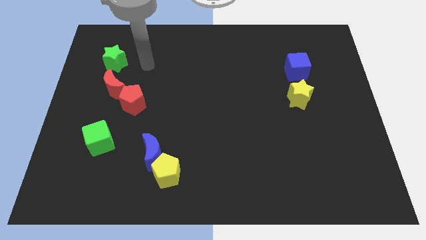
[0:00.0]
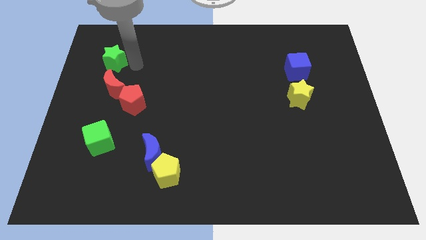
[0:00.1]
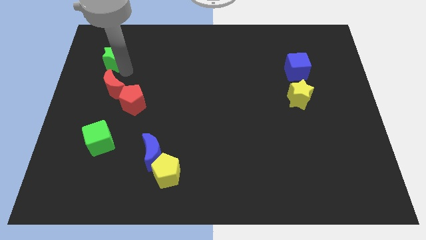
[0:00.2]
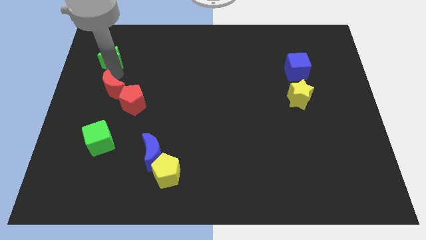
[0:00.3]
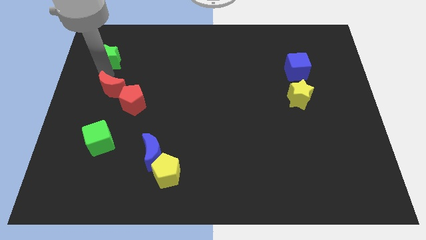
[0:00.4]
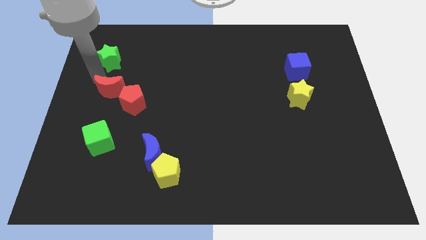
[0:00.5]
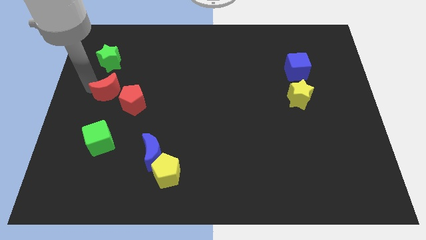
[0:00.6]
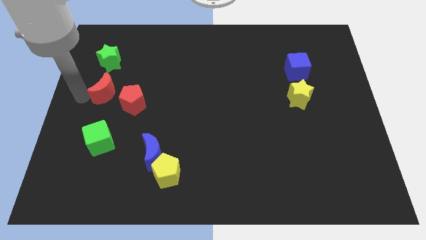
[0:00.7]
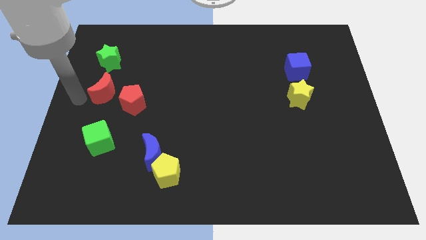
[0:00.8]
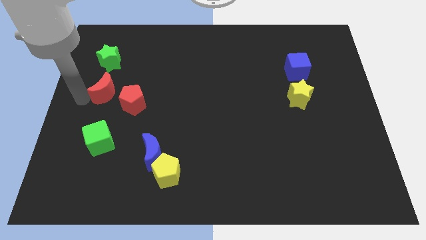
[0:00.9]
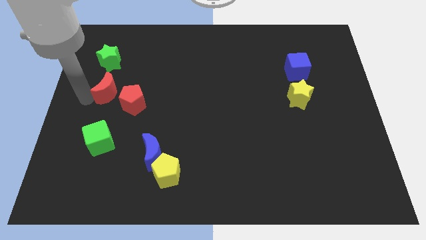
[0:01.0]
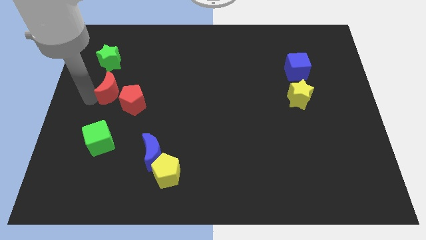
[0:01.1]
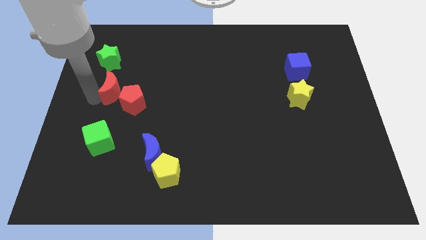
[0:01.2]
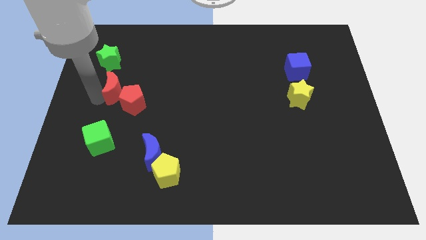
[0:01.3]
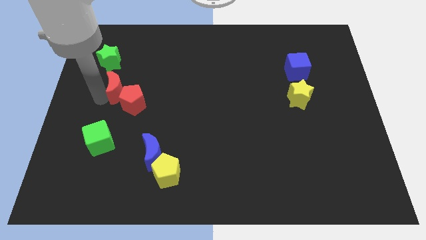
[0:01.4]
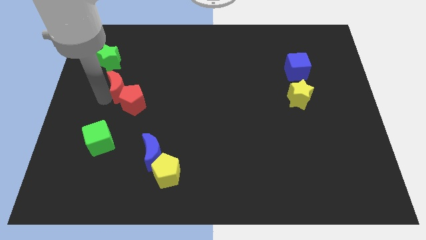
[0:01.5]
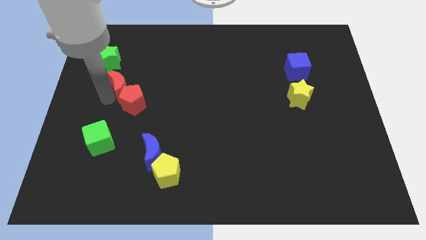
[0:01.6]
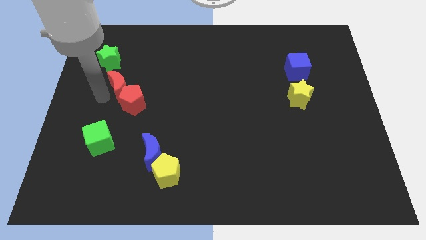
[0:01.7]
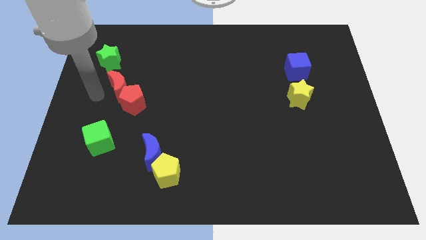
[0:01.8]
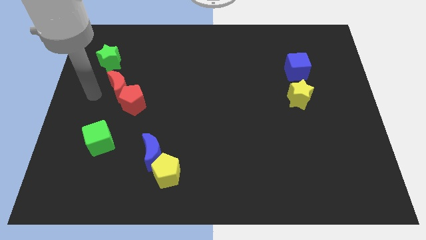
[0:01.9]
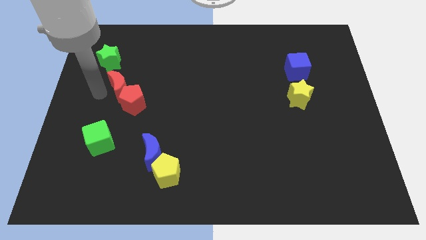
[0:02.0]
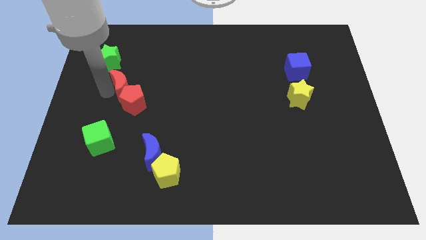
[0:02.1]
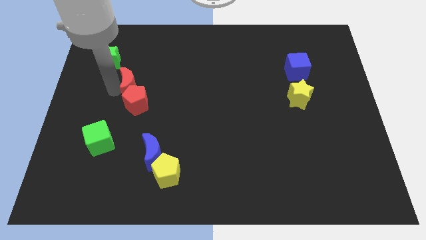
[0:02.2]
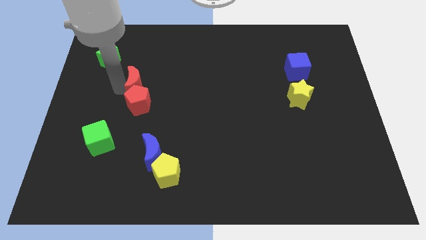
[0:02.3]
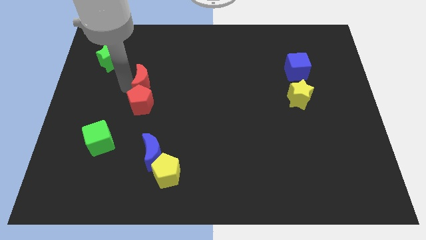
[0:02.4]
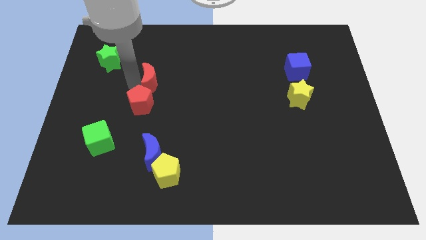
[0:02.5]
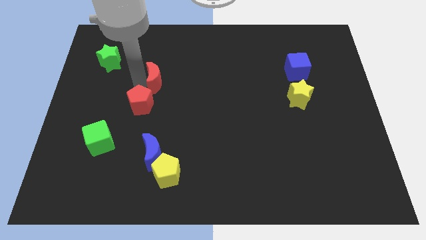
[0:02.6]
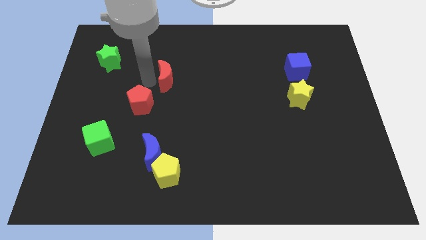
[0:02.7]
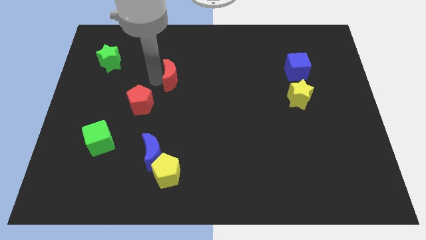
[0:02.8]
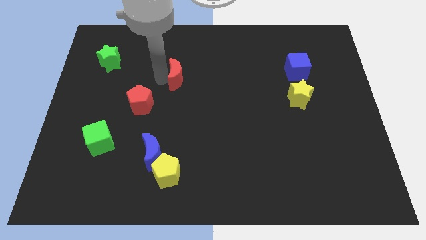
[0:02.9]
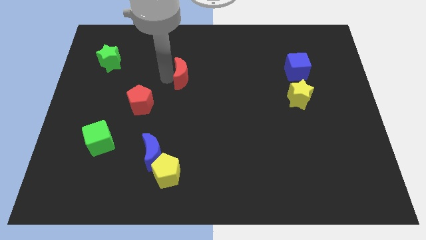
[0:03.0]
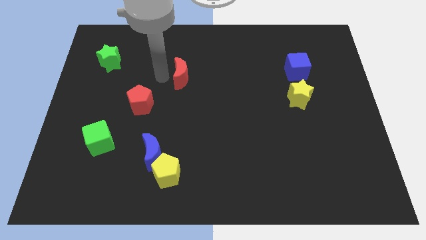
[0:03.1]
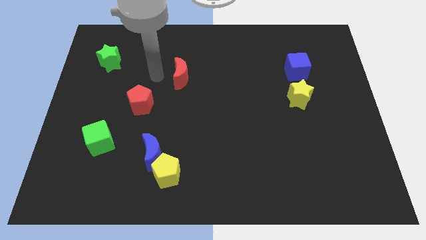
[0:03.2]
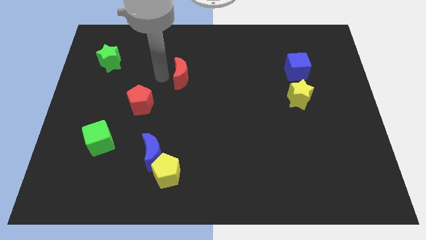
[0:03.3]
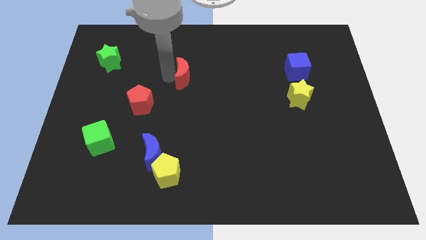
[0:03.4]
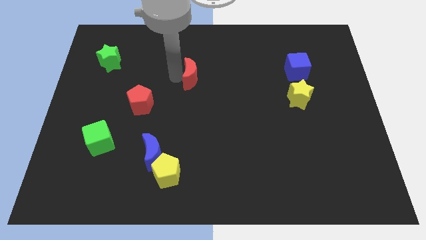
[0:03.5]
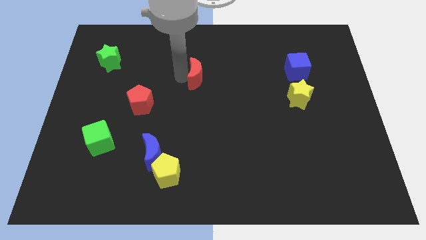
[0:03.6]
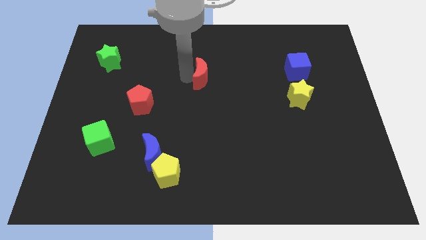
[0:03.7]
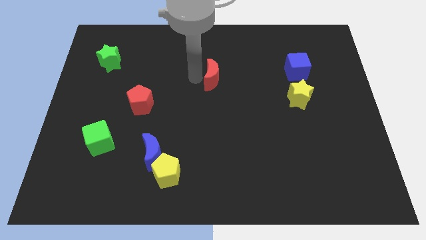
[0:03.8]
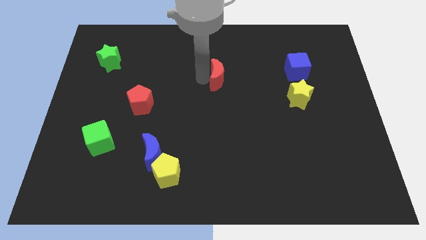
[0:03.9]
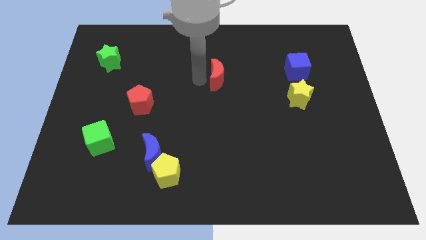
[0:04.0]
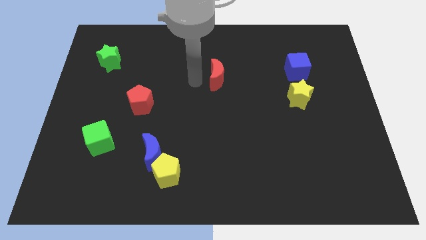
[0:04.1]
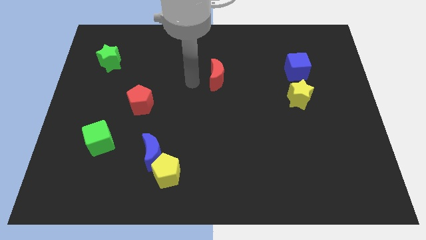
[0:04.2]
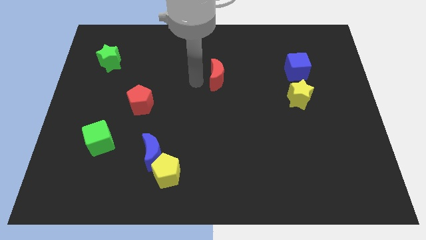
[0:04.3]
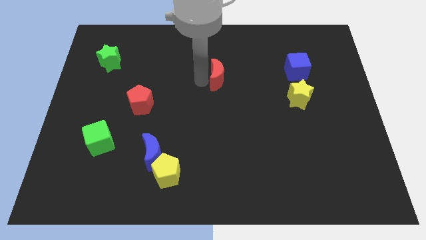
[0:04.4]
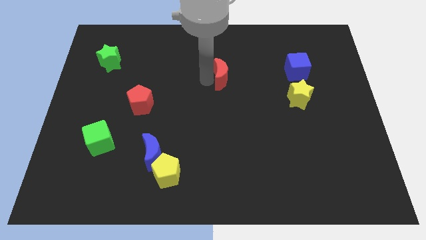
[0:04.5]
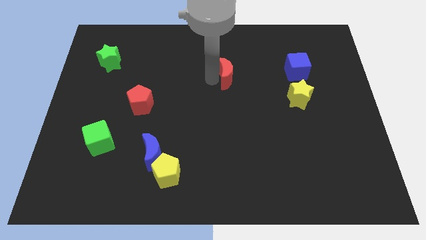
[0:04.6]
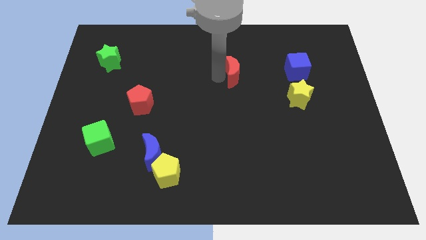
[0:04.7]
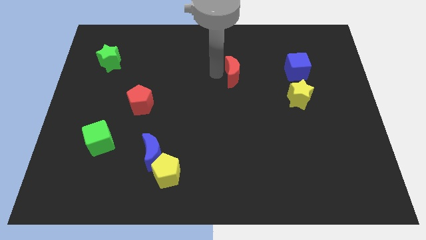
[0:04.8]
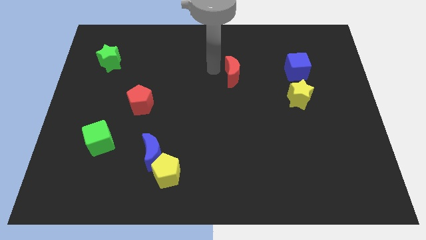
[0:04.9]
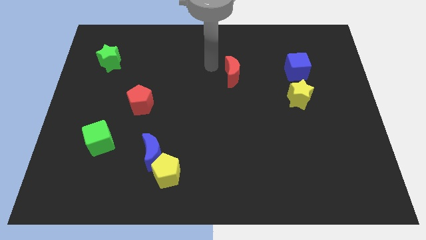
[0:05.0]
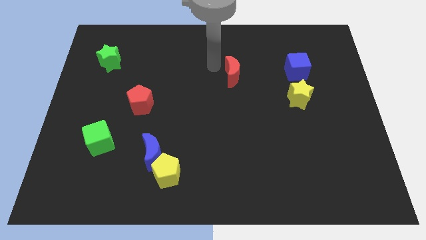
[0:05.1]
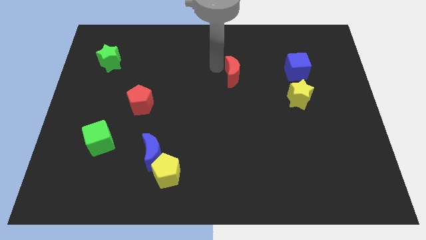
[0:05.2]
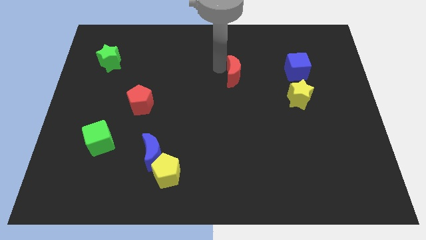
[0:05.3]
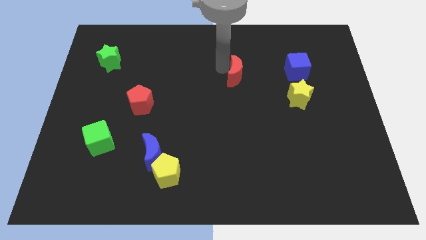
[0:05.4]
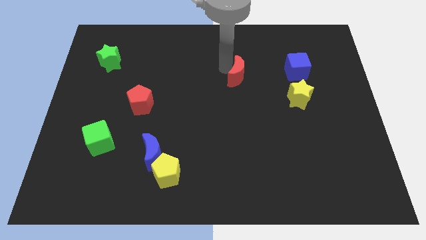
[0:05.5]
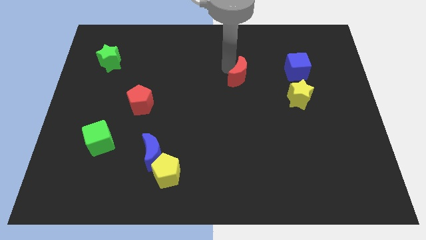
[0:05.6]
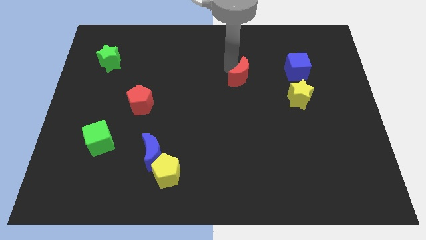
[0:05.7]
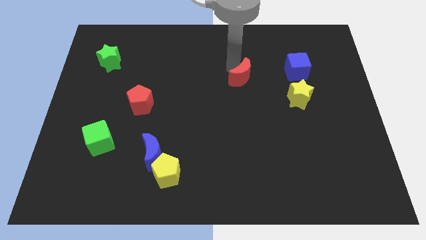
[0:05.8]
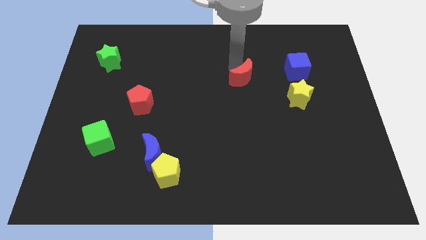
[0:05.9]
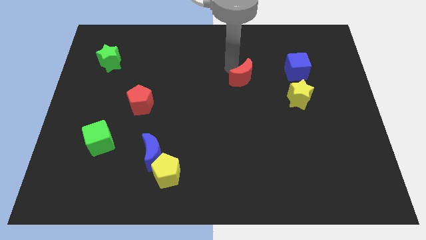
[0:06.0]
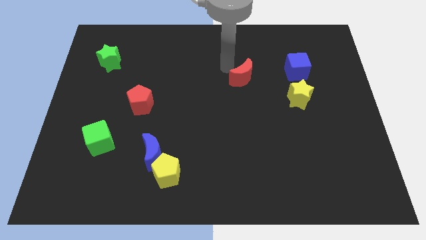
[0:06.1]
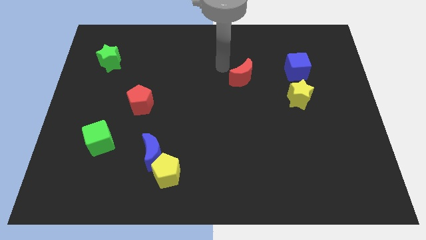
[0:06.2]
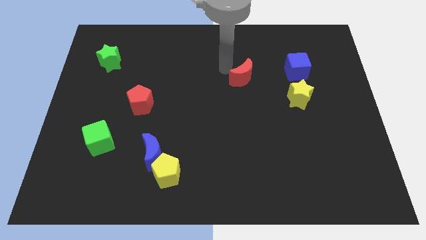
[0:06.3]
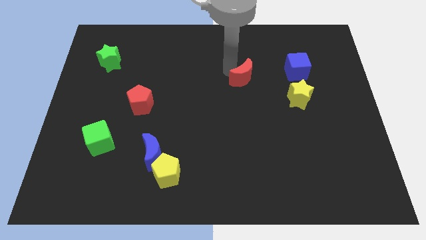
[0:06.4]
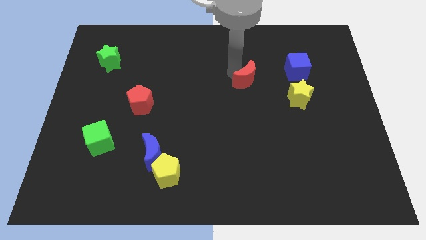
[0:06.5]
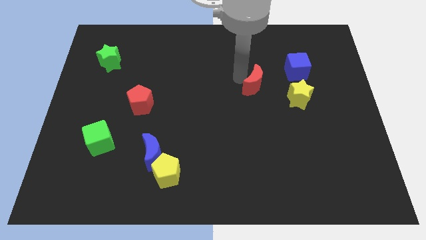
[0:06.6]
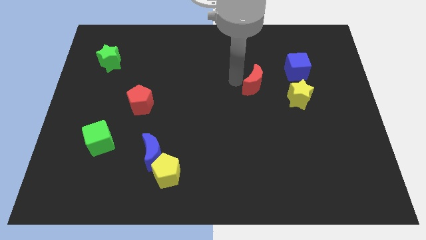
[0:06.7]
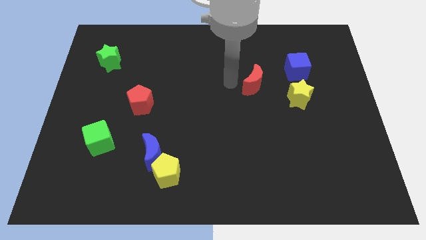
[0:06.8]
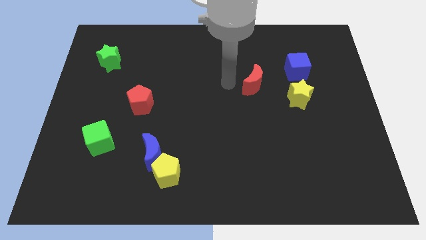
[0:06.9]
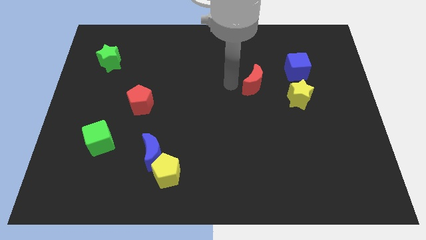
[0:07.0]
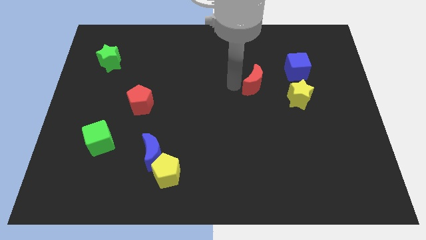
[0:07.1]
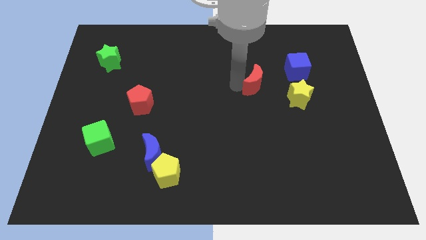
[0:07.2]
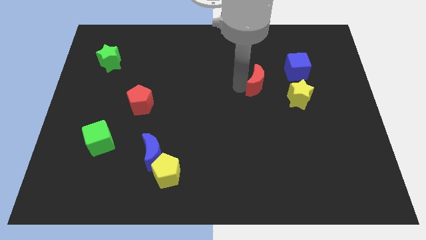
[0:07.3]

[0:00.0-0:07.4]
move the red moon to the bottom left of the blue cube

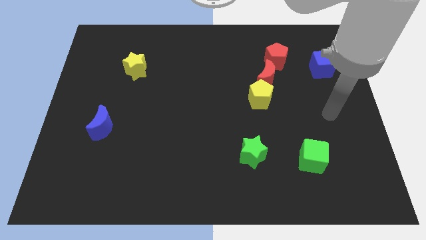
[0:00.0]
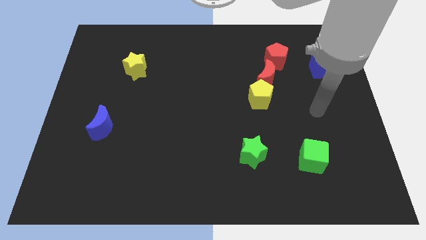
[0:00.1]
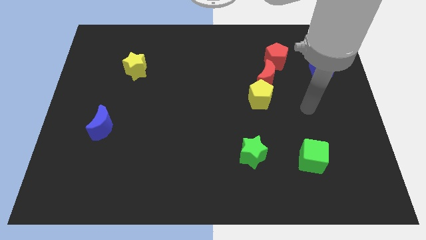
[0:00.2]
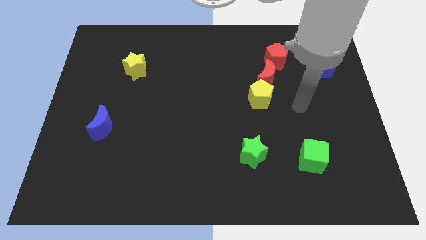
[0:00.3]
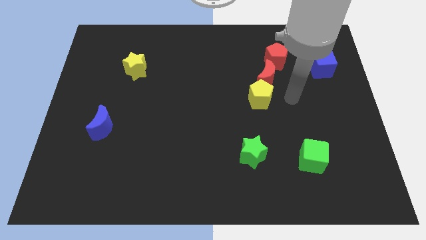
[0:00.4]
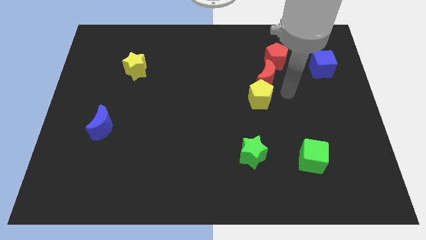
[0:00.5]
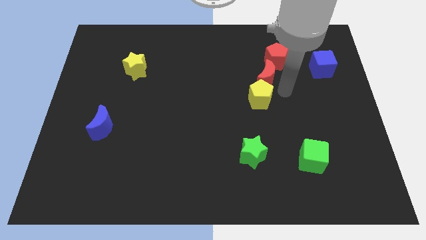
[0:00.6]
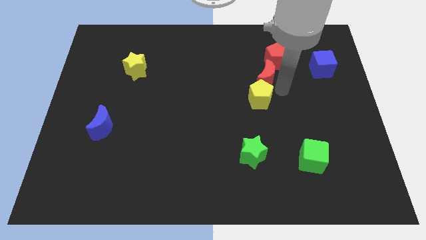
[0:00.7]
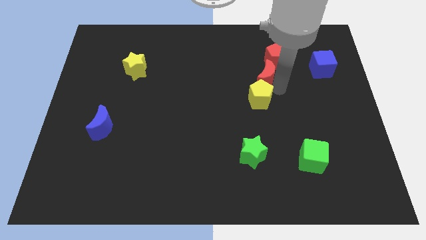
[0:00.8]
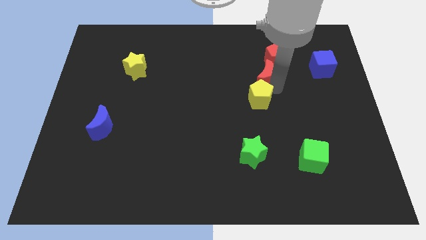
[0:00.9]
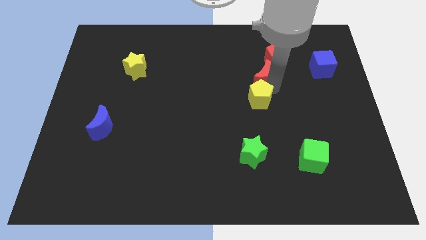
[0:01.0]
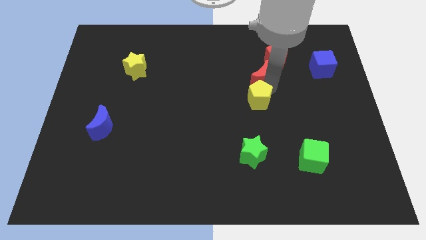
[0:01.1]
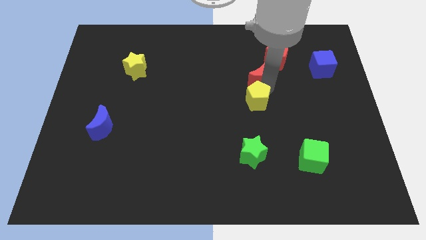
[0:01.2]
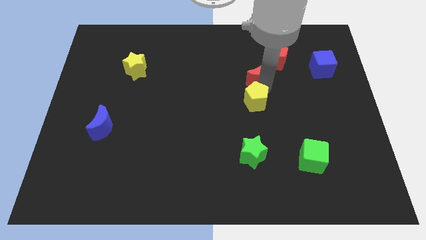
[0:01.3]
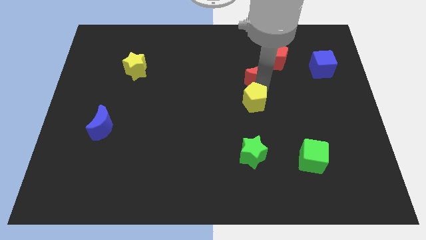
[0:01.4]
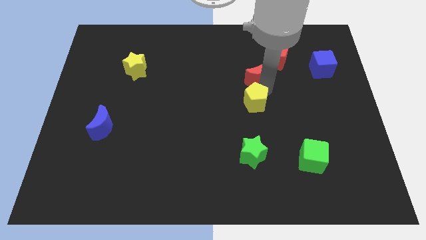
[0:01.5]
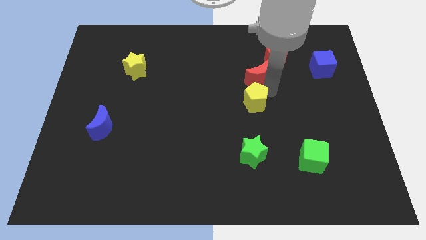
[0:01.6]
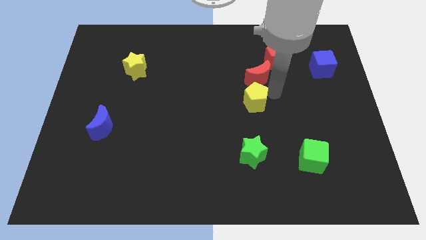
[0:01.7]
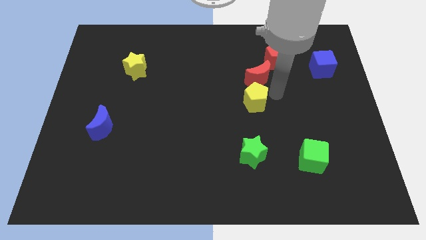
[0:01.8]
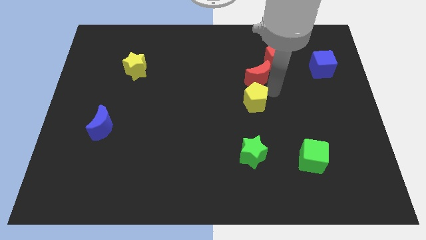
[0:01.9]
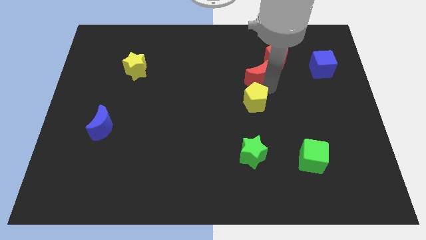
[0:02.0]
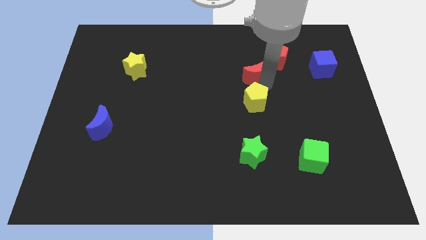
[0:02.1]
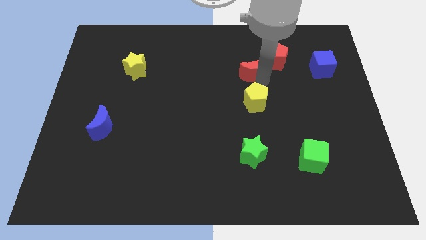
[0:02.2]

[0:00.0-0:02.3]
put the red moon to the left of the red pentagon
